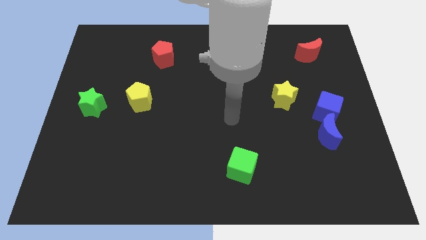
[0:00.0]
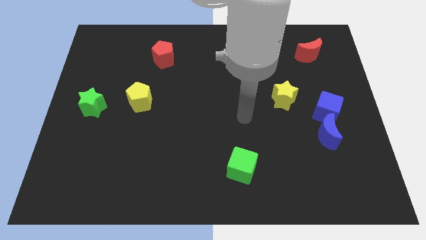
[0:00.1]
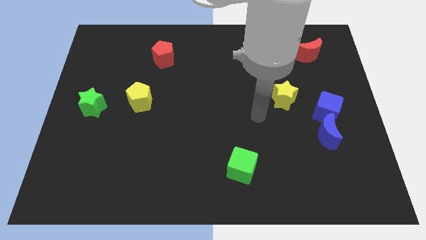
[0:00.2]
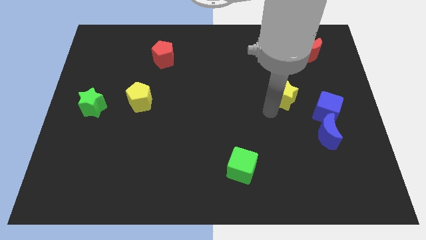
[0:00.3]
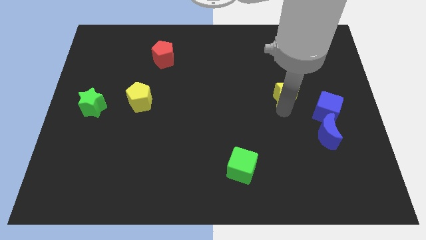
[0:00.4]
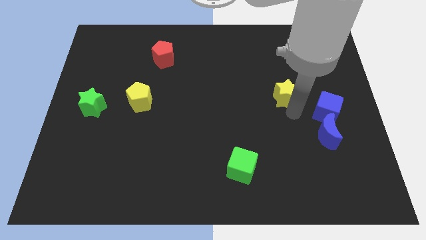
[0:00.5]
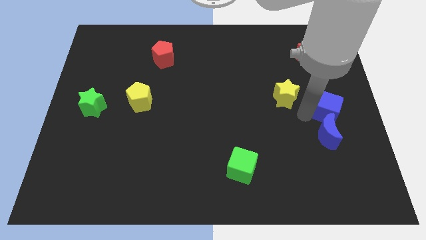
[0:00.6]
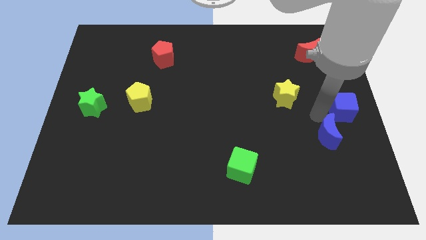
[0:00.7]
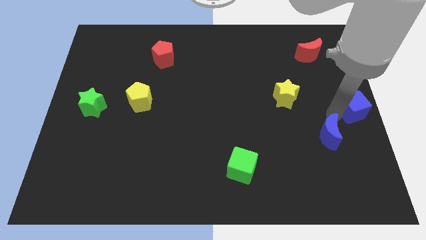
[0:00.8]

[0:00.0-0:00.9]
separate the blue moon from the blue cube

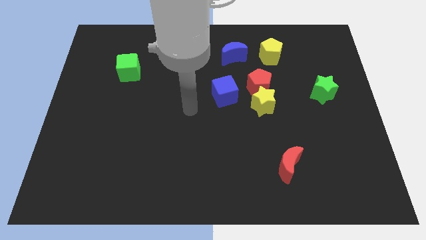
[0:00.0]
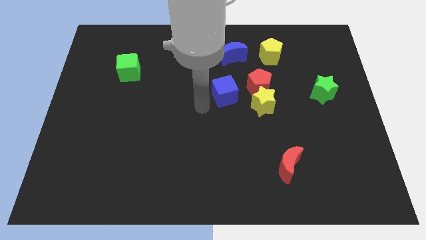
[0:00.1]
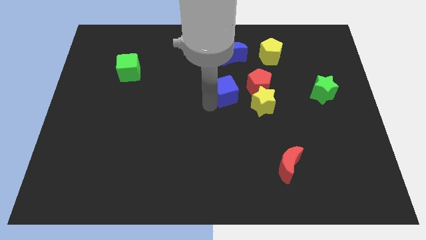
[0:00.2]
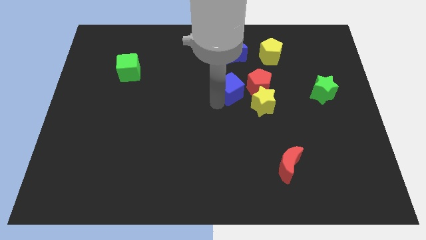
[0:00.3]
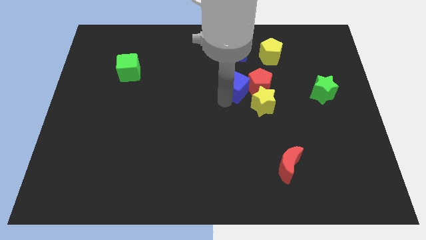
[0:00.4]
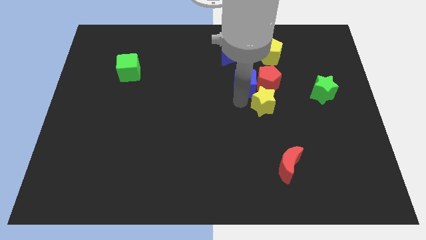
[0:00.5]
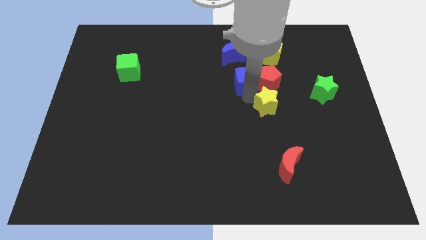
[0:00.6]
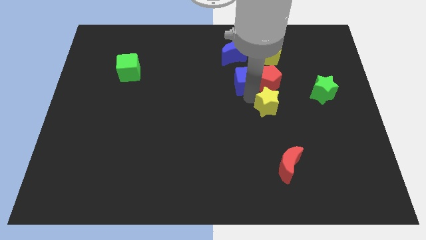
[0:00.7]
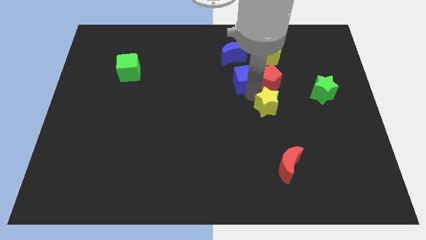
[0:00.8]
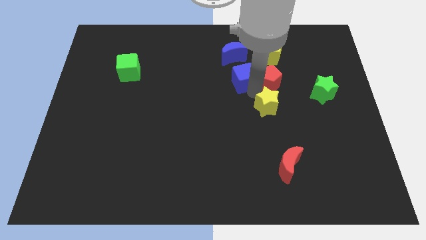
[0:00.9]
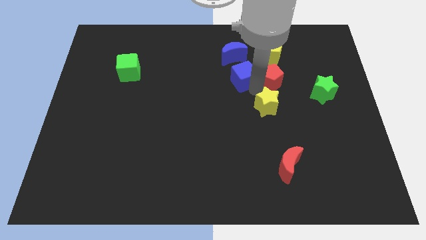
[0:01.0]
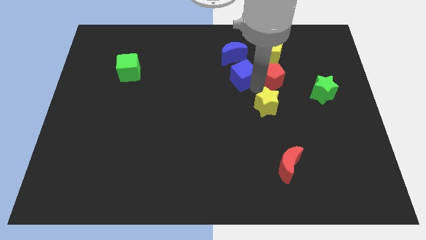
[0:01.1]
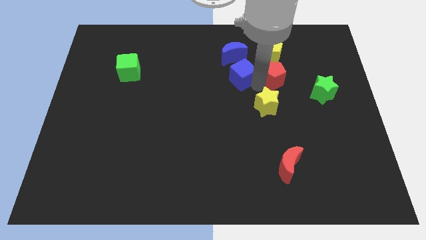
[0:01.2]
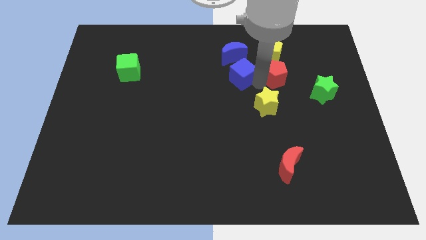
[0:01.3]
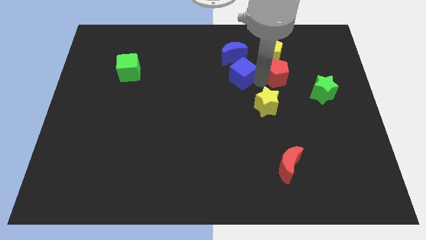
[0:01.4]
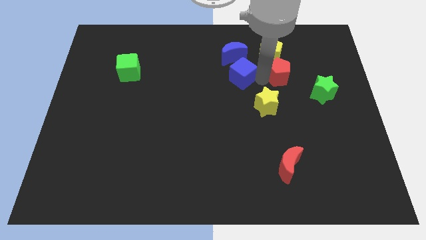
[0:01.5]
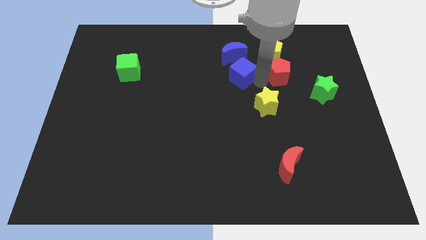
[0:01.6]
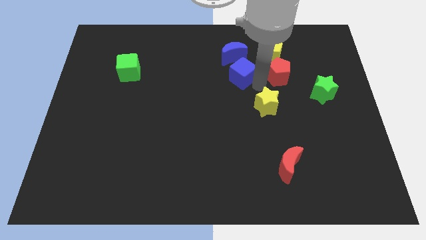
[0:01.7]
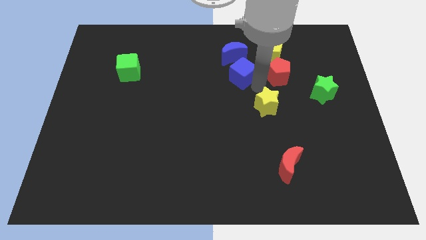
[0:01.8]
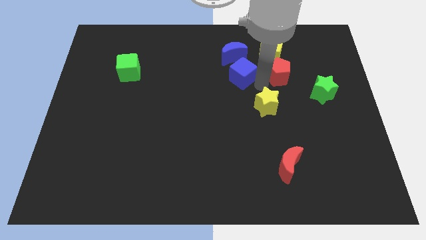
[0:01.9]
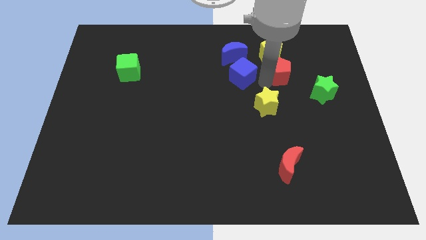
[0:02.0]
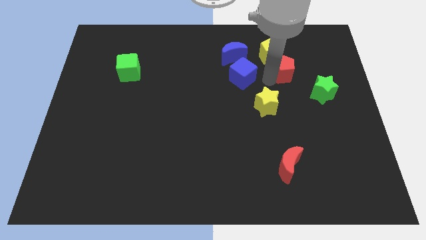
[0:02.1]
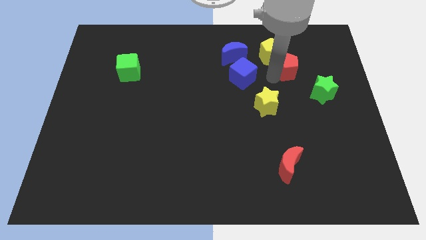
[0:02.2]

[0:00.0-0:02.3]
move the red pentagon away from the yellow star and blue cube

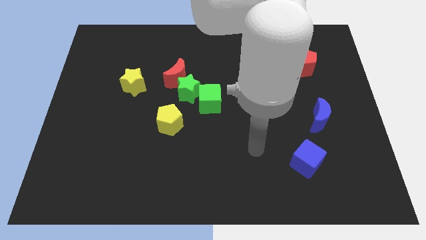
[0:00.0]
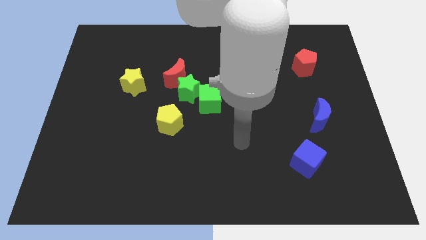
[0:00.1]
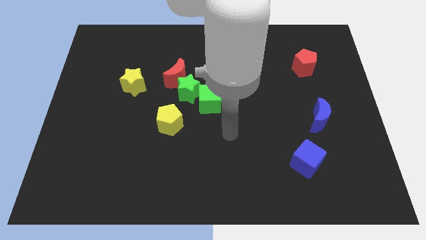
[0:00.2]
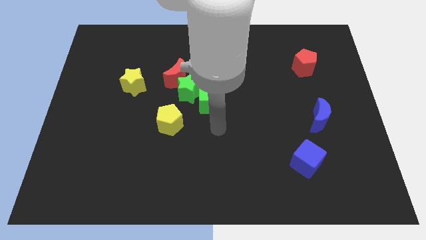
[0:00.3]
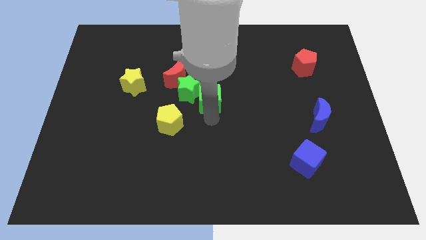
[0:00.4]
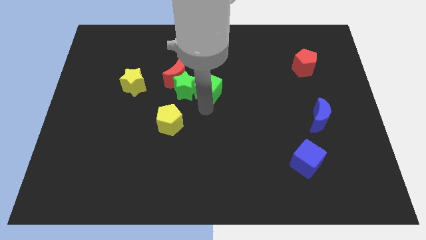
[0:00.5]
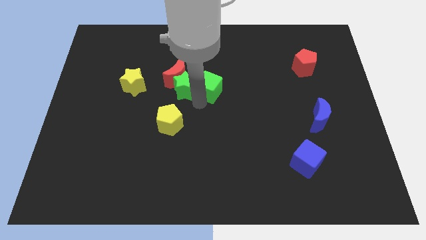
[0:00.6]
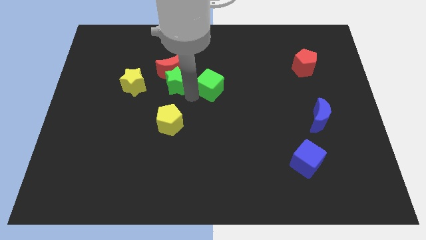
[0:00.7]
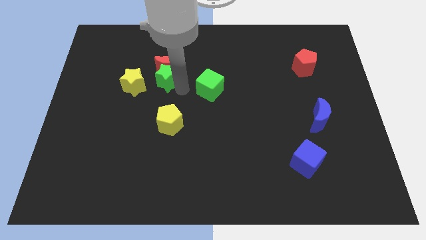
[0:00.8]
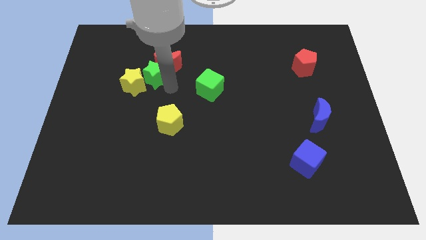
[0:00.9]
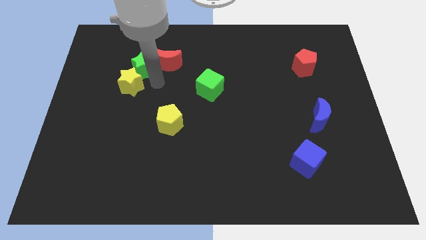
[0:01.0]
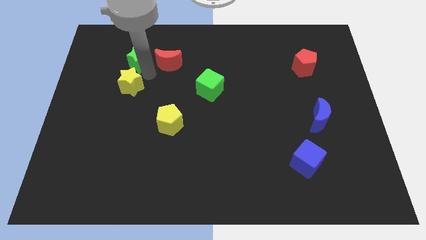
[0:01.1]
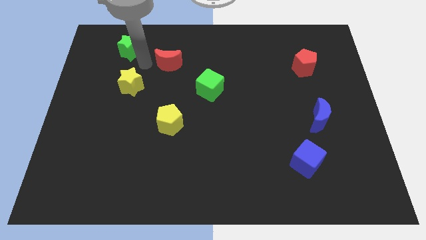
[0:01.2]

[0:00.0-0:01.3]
pull the red moon apart from the green star

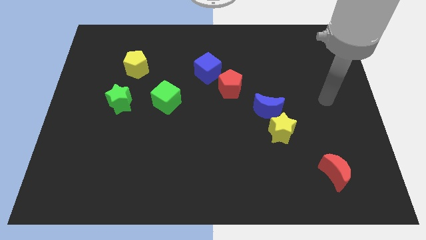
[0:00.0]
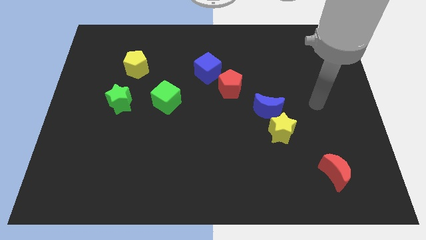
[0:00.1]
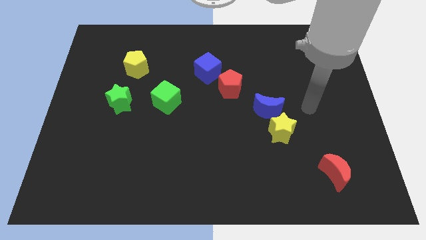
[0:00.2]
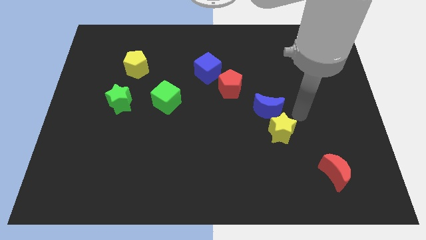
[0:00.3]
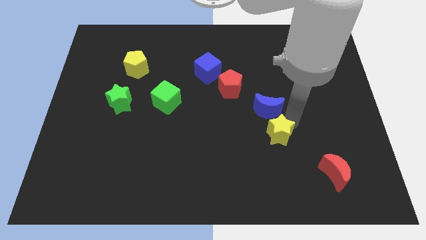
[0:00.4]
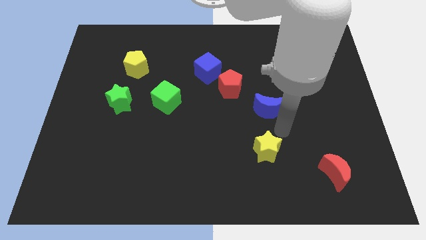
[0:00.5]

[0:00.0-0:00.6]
separate the blue moon from the yellow star

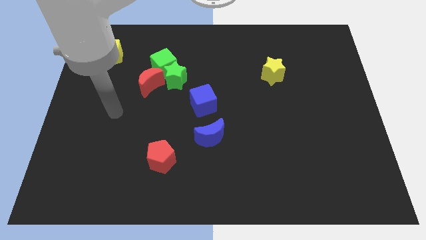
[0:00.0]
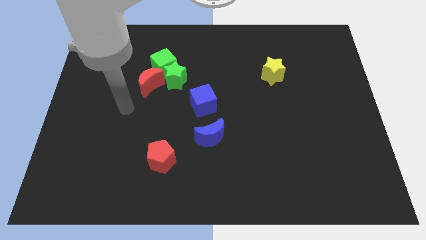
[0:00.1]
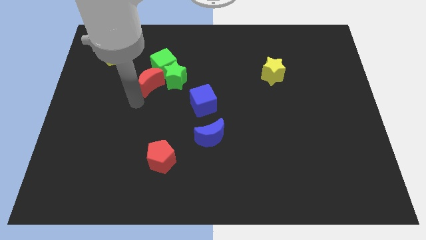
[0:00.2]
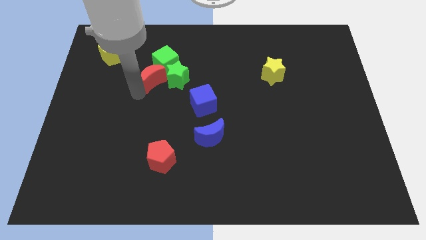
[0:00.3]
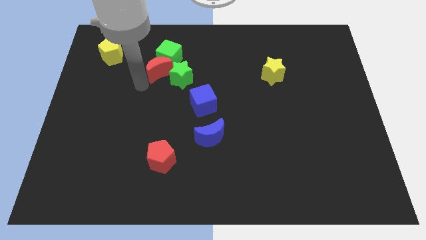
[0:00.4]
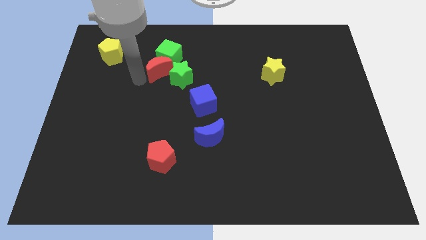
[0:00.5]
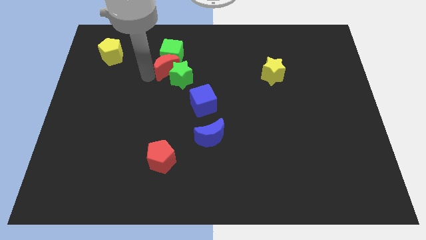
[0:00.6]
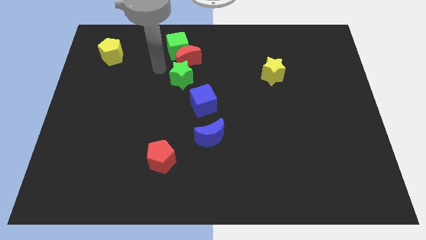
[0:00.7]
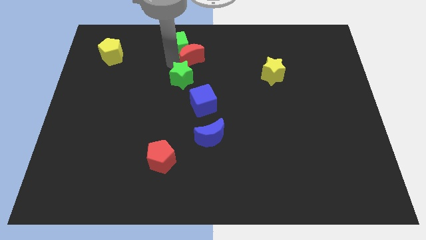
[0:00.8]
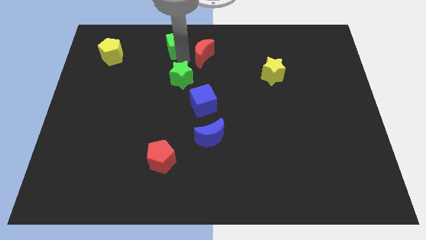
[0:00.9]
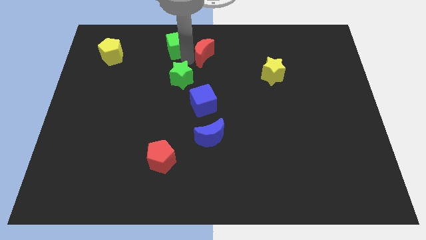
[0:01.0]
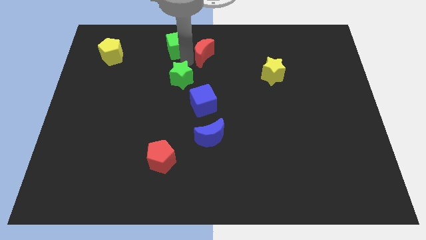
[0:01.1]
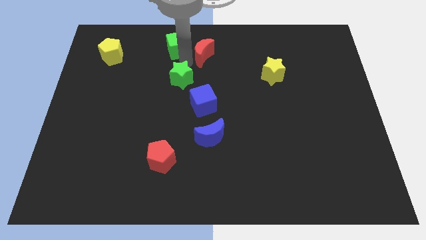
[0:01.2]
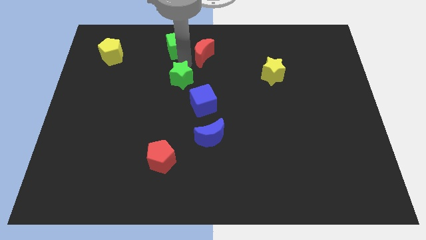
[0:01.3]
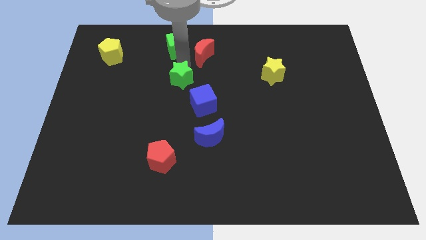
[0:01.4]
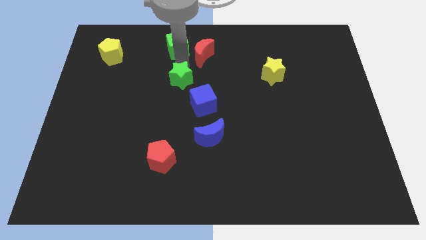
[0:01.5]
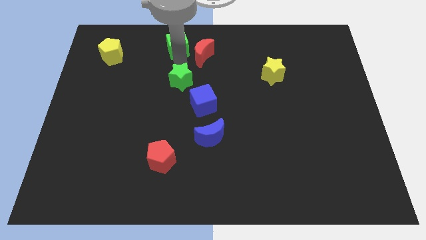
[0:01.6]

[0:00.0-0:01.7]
pull the green star apart from the green cube and red moon

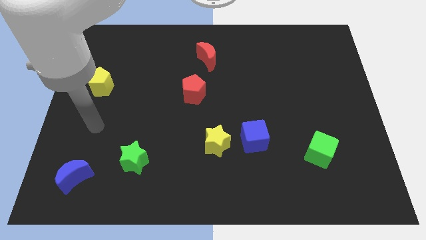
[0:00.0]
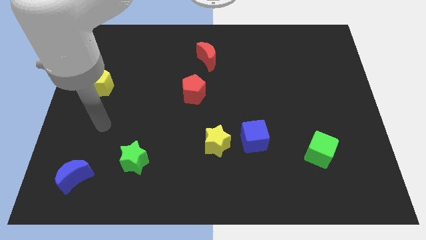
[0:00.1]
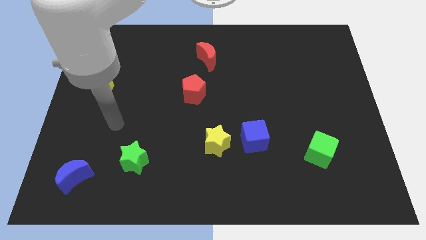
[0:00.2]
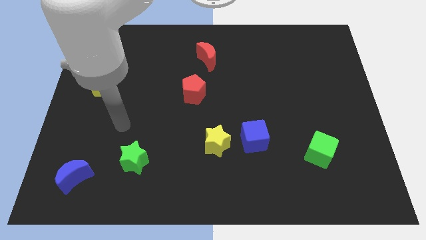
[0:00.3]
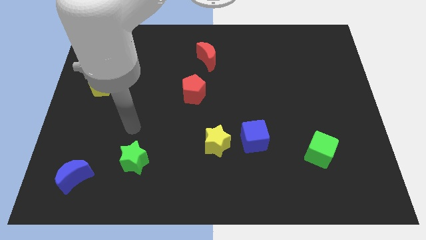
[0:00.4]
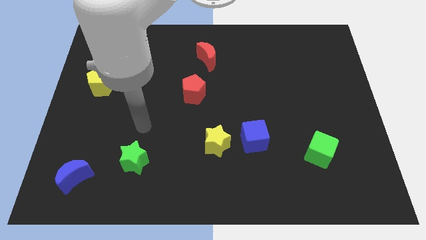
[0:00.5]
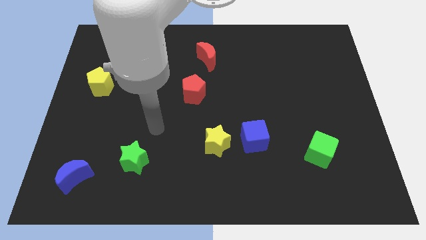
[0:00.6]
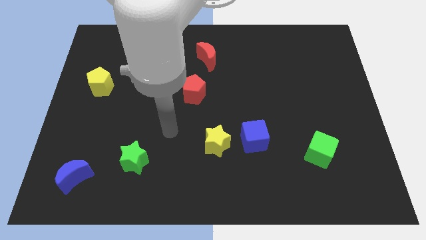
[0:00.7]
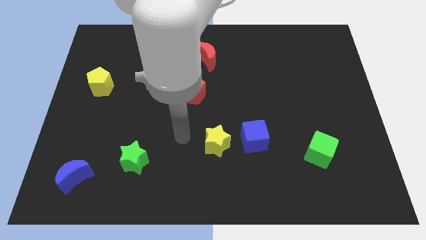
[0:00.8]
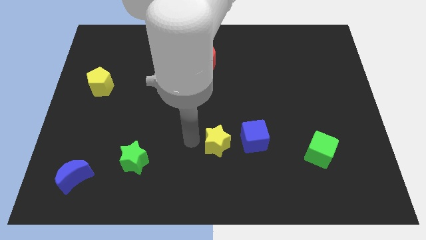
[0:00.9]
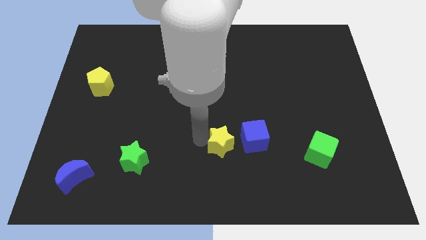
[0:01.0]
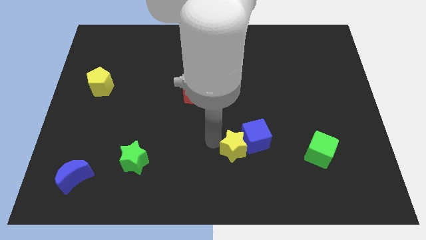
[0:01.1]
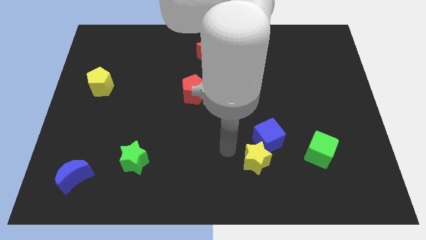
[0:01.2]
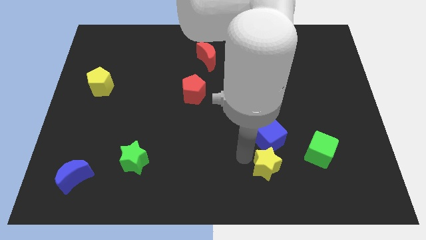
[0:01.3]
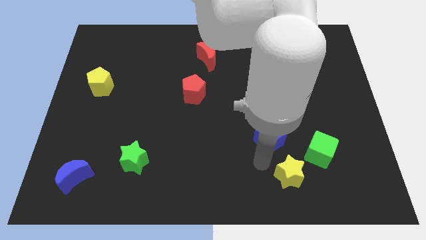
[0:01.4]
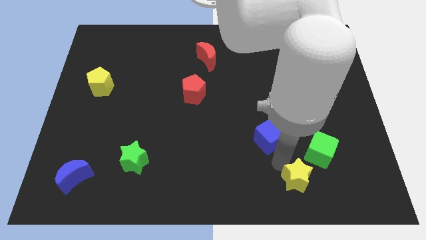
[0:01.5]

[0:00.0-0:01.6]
pull the blue cube apart from the yellow star

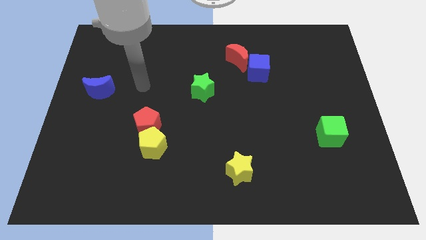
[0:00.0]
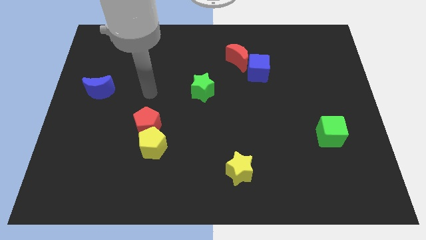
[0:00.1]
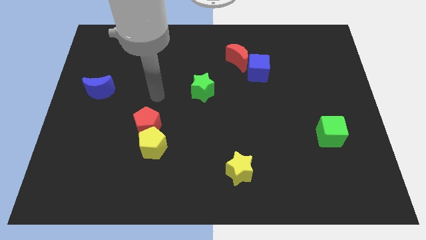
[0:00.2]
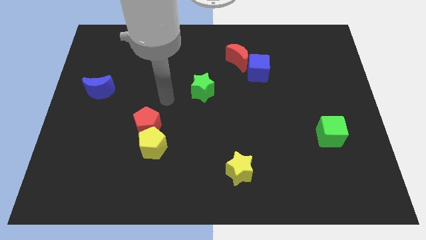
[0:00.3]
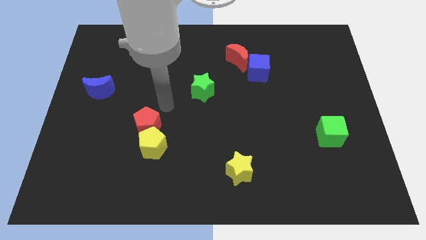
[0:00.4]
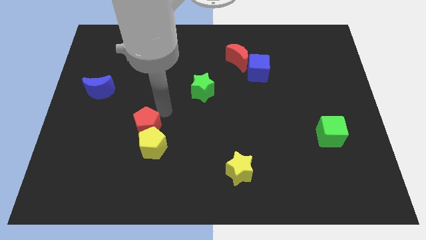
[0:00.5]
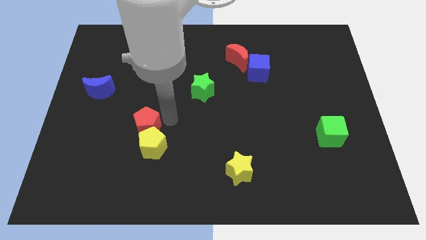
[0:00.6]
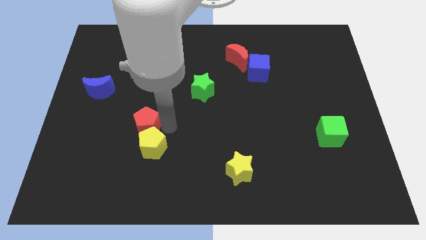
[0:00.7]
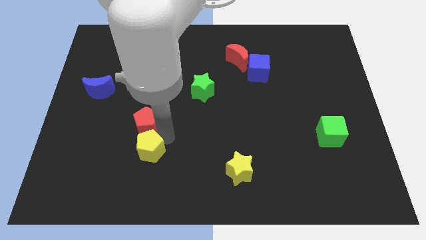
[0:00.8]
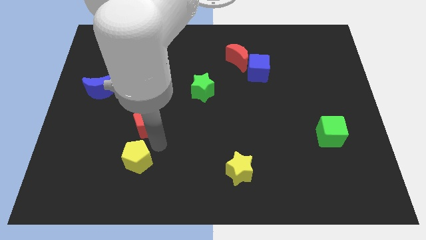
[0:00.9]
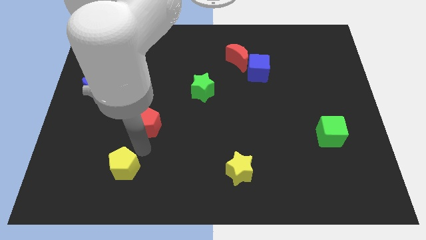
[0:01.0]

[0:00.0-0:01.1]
separate the red pentagon from the yellow pentagon
